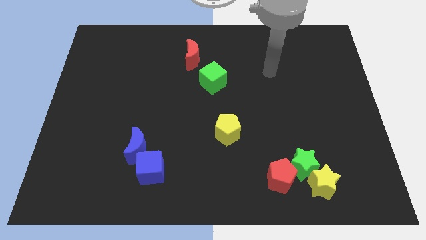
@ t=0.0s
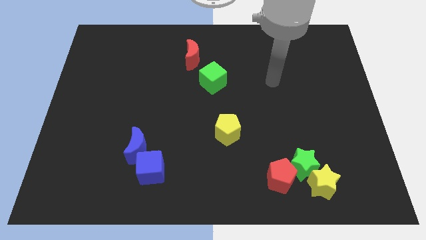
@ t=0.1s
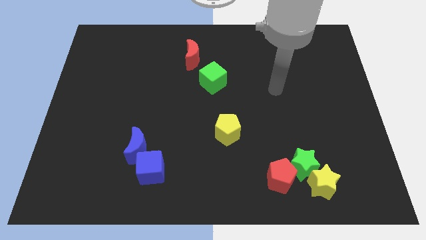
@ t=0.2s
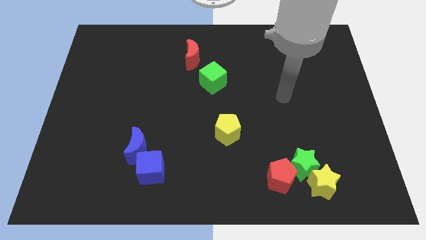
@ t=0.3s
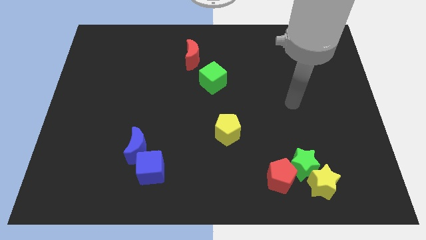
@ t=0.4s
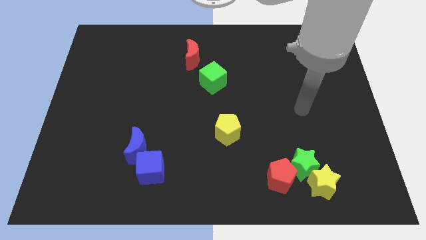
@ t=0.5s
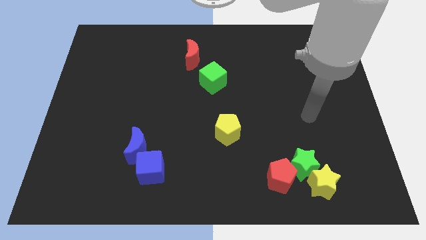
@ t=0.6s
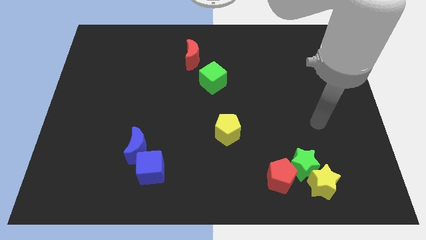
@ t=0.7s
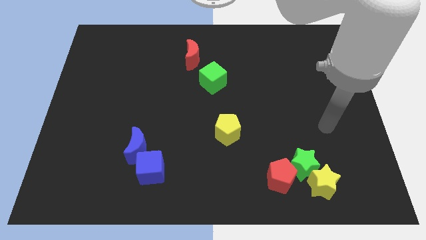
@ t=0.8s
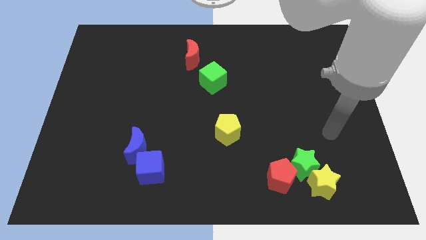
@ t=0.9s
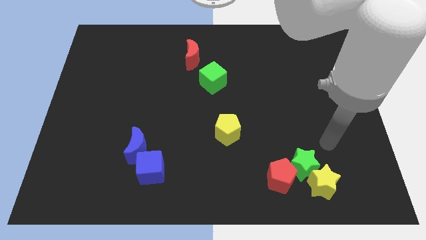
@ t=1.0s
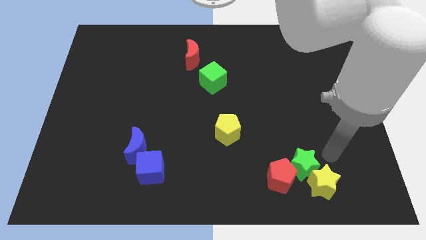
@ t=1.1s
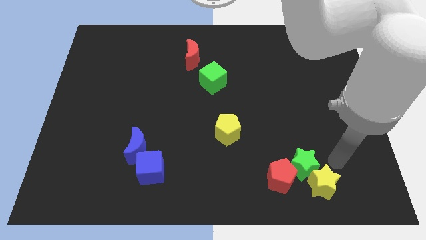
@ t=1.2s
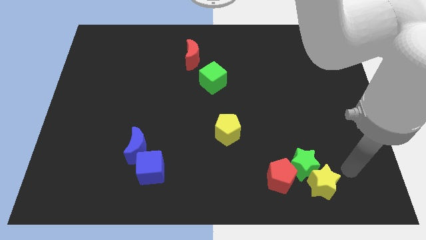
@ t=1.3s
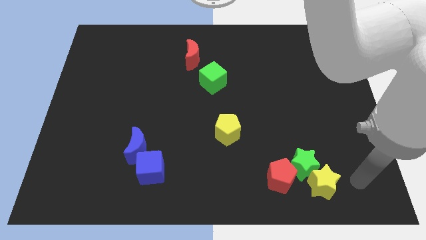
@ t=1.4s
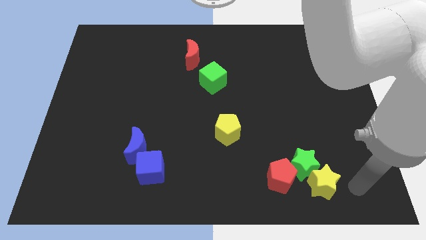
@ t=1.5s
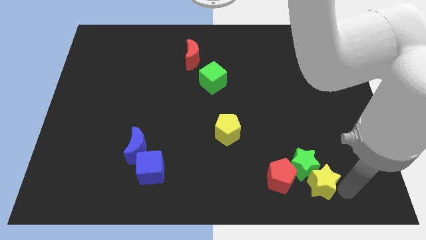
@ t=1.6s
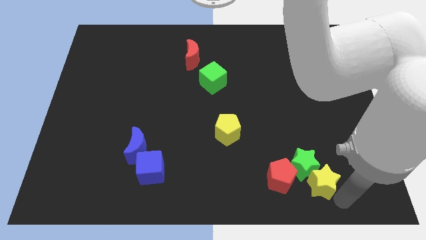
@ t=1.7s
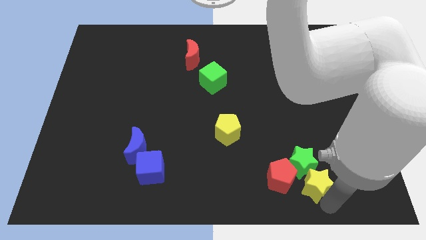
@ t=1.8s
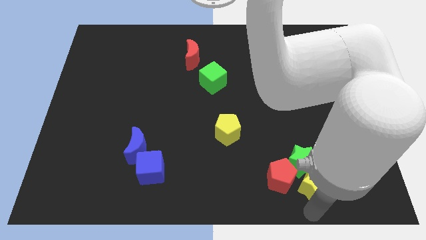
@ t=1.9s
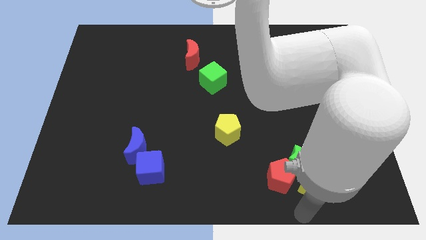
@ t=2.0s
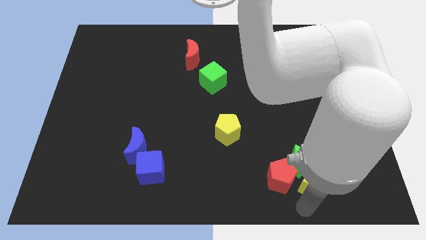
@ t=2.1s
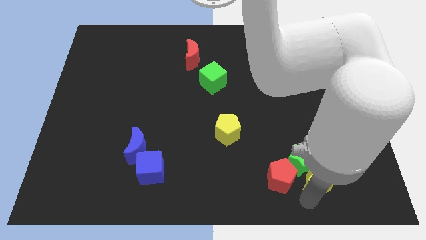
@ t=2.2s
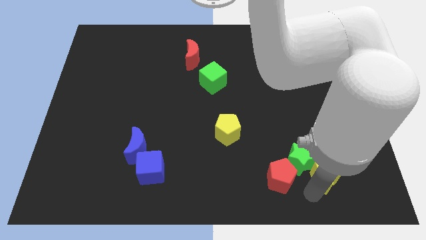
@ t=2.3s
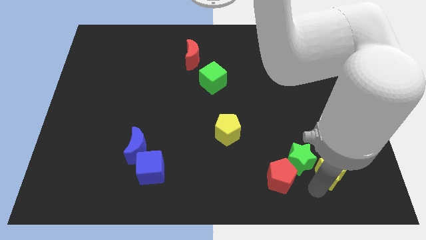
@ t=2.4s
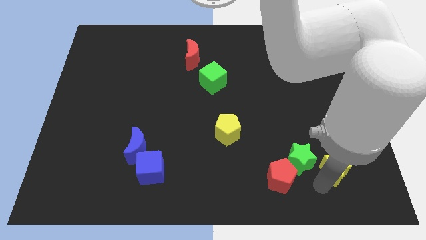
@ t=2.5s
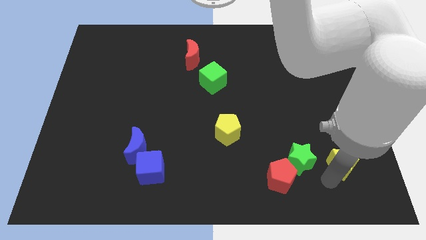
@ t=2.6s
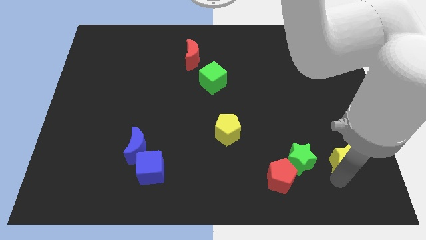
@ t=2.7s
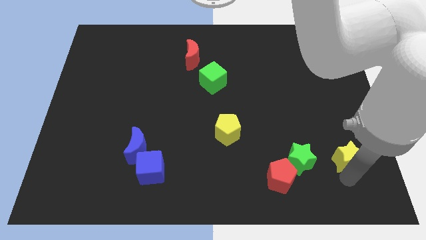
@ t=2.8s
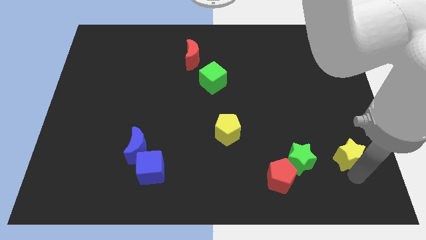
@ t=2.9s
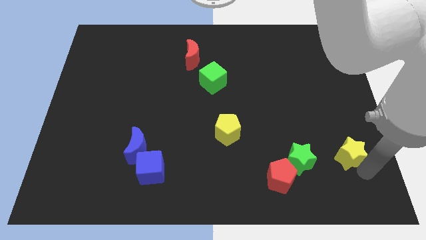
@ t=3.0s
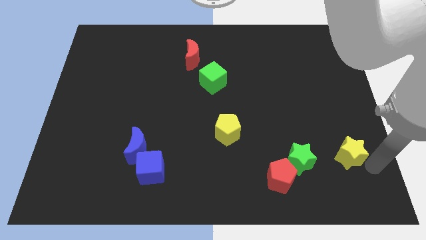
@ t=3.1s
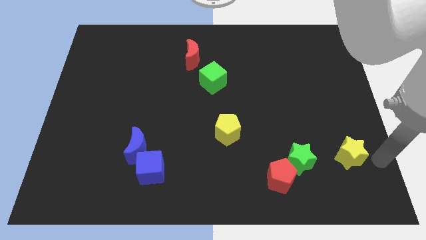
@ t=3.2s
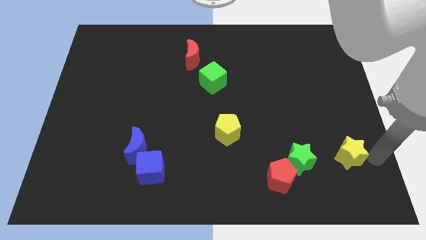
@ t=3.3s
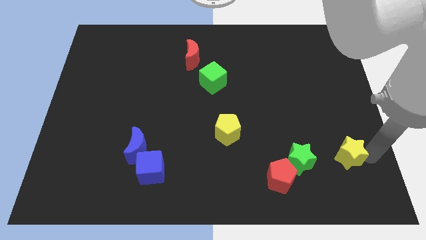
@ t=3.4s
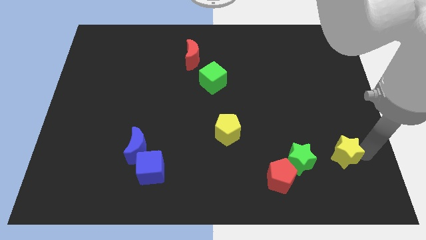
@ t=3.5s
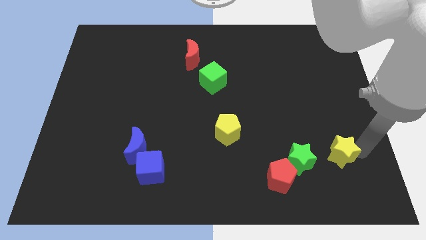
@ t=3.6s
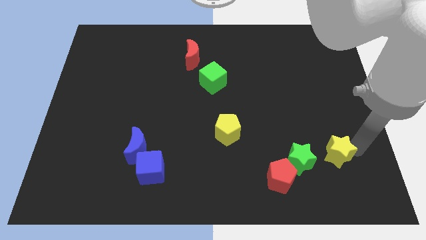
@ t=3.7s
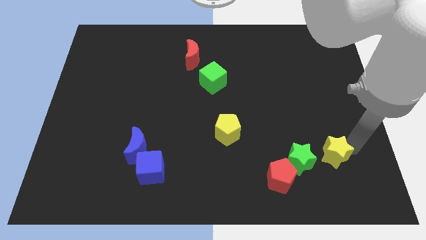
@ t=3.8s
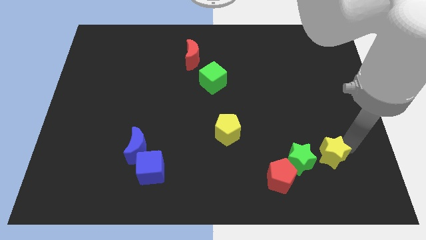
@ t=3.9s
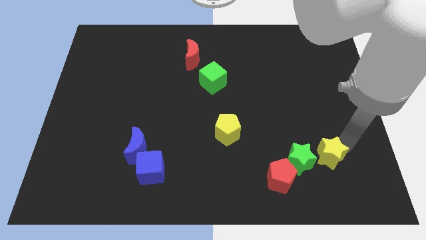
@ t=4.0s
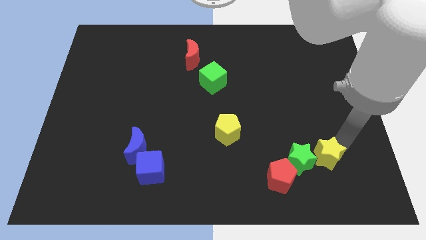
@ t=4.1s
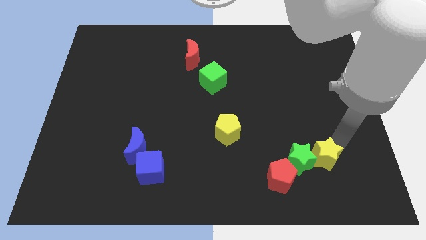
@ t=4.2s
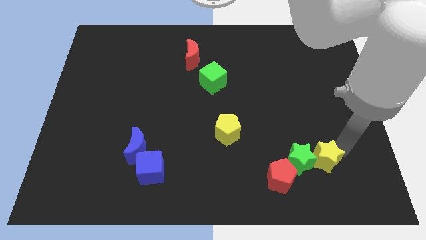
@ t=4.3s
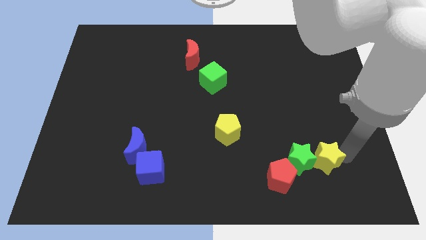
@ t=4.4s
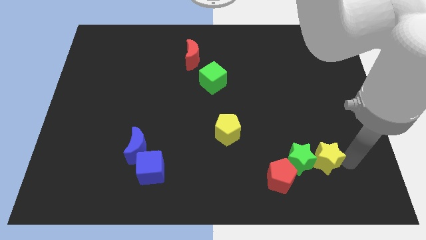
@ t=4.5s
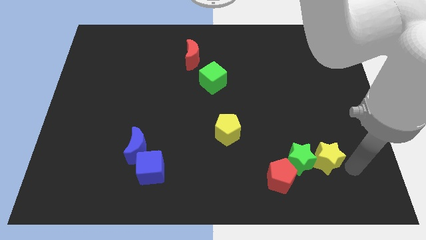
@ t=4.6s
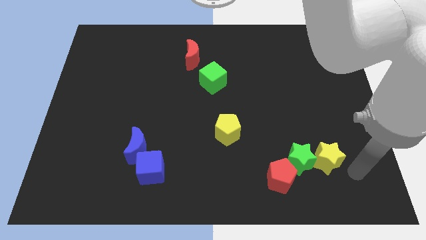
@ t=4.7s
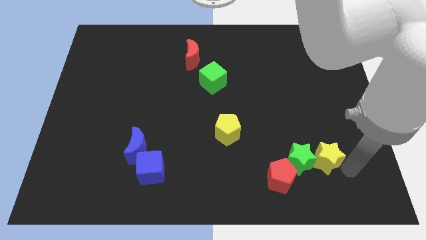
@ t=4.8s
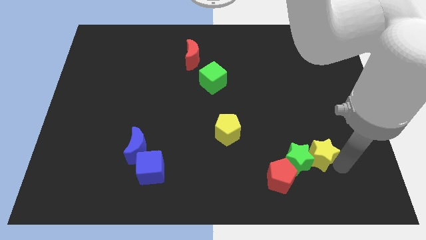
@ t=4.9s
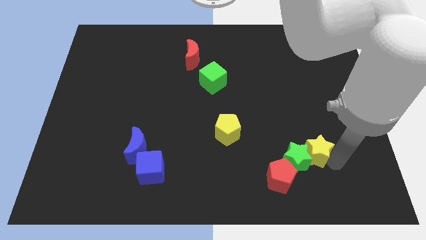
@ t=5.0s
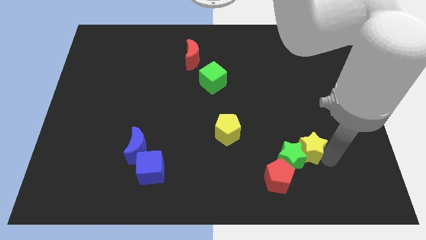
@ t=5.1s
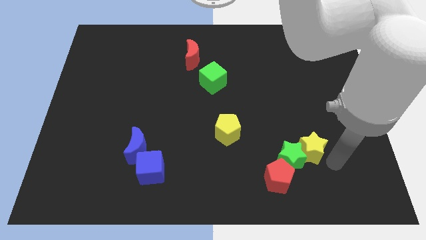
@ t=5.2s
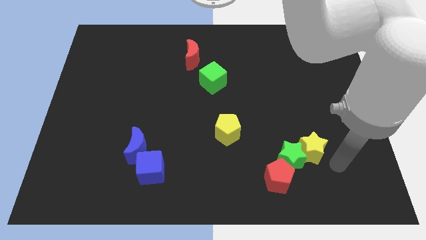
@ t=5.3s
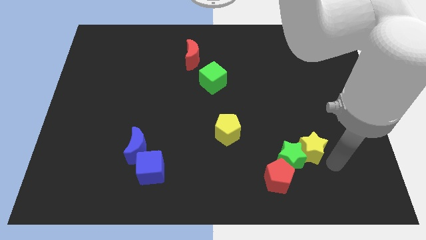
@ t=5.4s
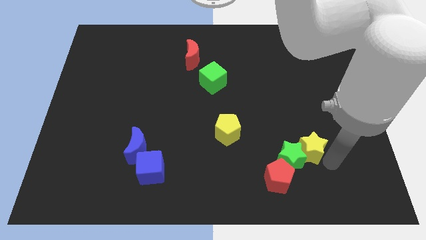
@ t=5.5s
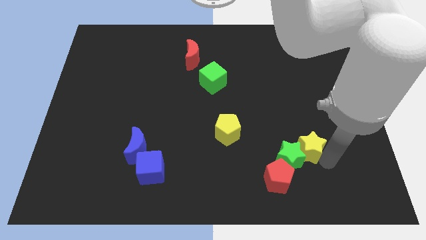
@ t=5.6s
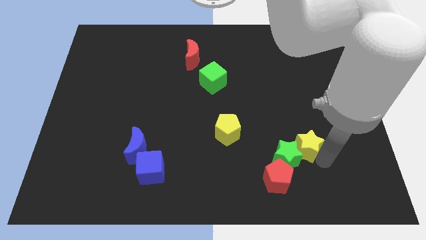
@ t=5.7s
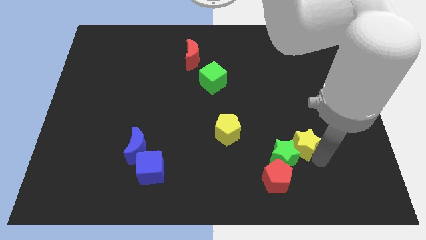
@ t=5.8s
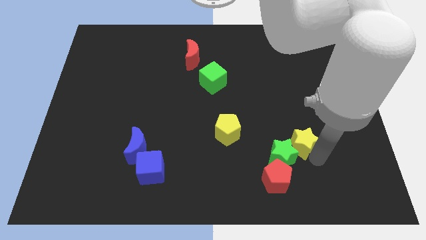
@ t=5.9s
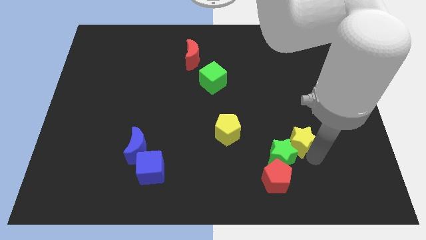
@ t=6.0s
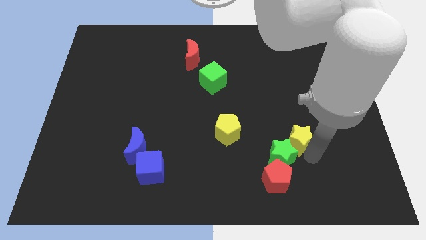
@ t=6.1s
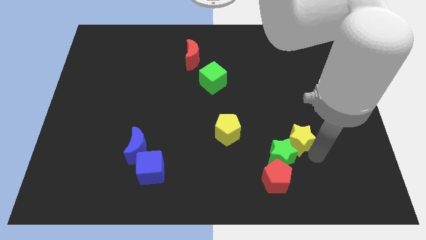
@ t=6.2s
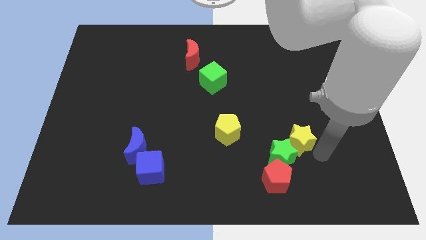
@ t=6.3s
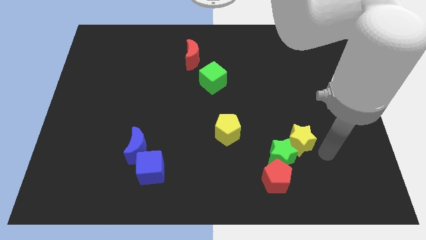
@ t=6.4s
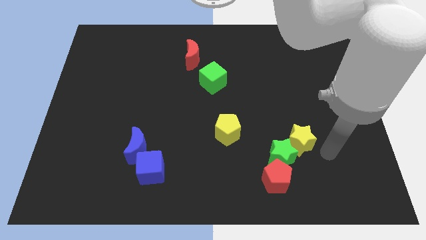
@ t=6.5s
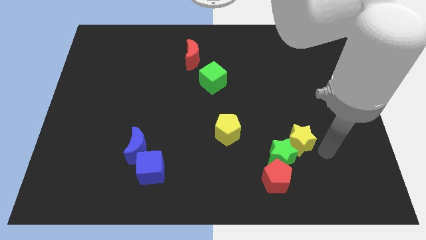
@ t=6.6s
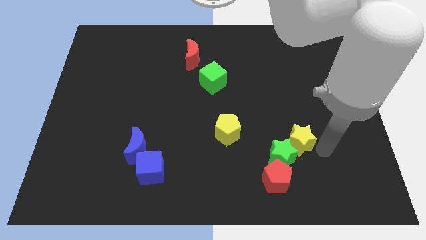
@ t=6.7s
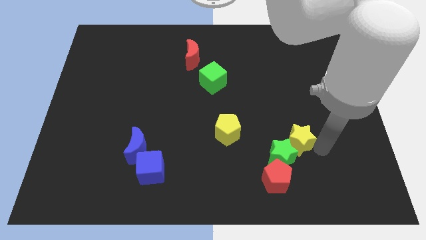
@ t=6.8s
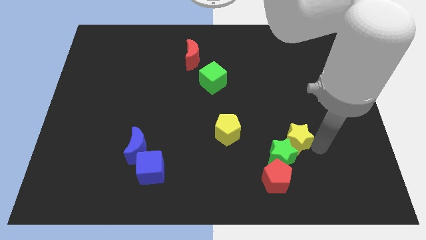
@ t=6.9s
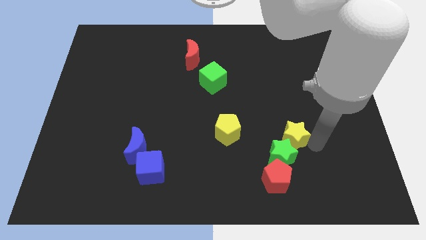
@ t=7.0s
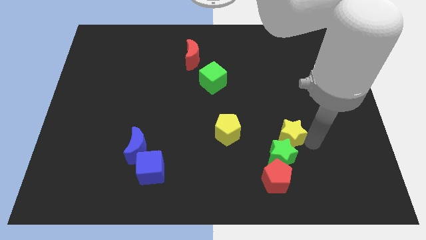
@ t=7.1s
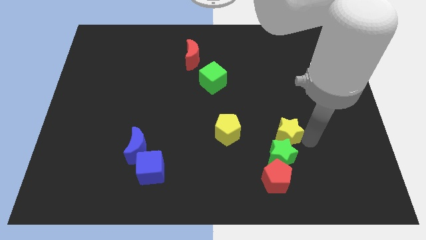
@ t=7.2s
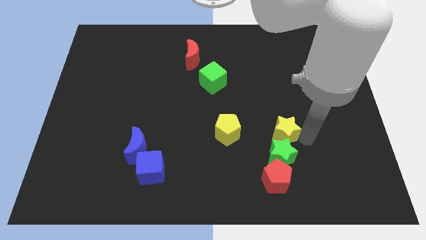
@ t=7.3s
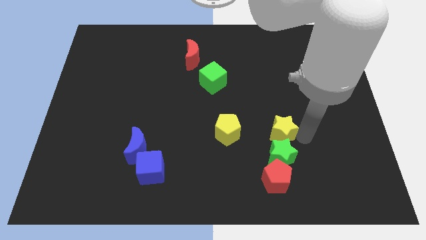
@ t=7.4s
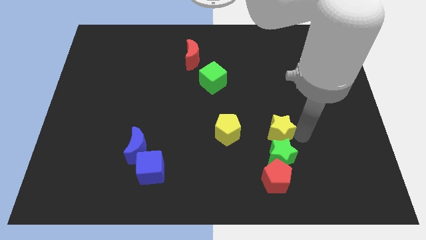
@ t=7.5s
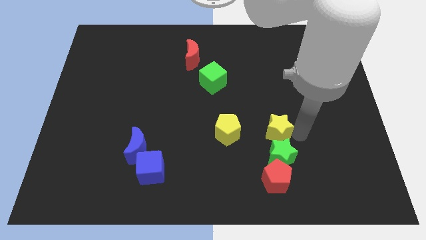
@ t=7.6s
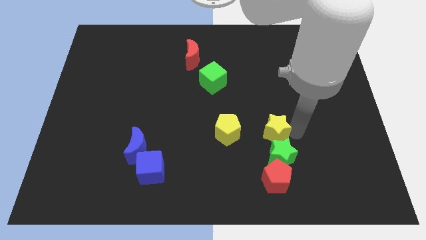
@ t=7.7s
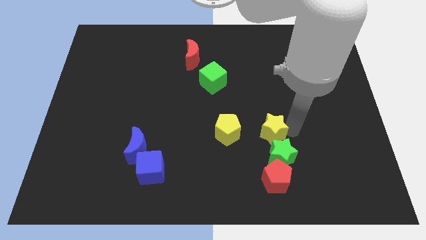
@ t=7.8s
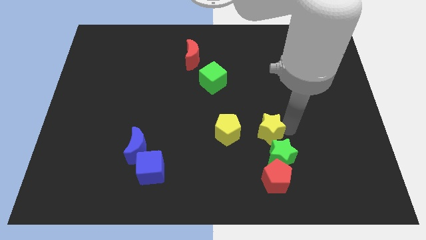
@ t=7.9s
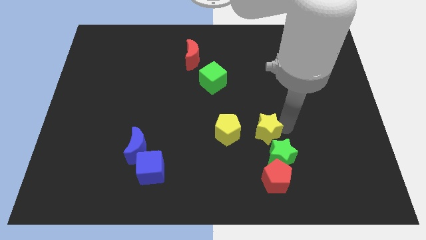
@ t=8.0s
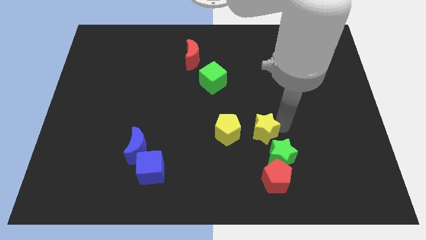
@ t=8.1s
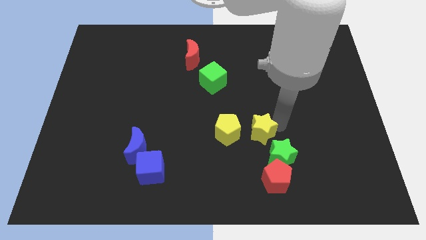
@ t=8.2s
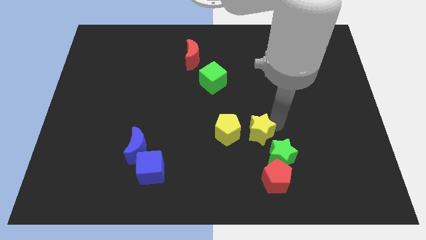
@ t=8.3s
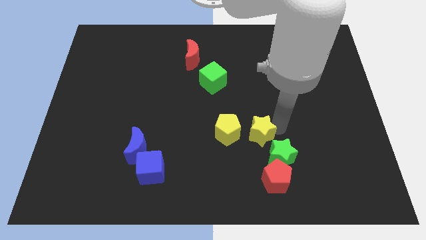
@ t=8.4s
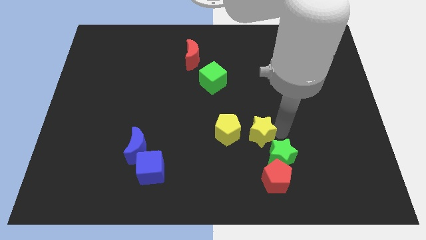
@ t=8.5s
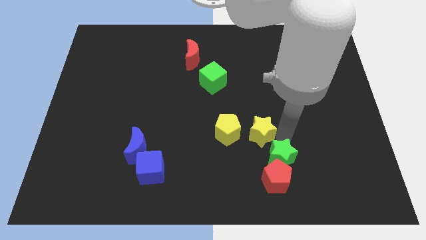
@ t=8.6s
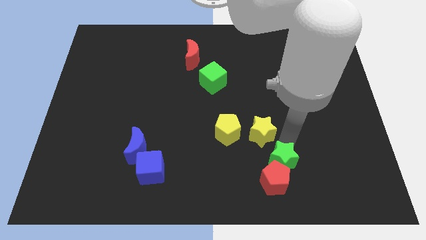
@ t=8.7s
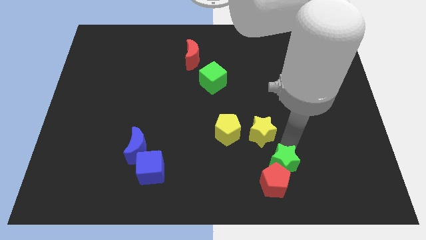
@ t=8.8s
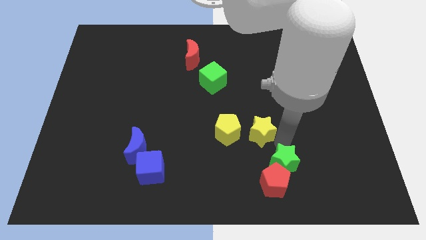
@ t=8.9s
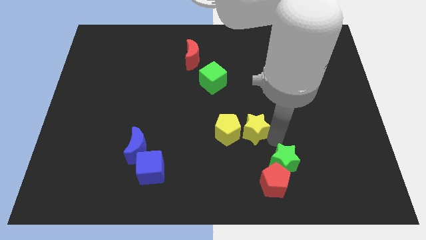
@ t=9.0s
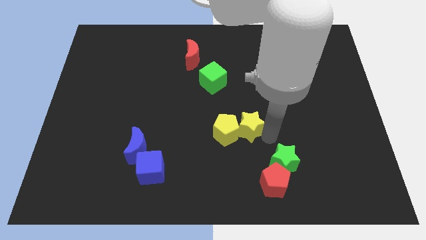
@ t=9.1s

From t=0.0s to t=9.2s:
push the yellow star to the center of the board
